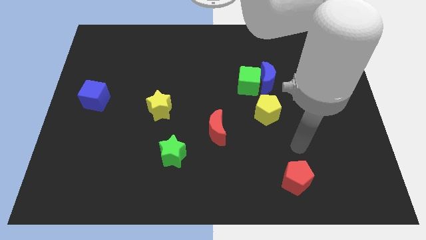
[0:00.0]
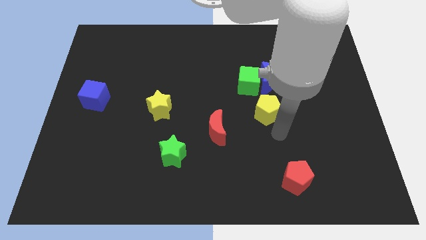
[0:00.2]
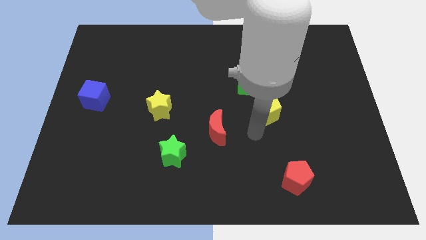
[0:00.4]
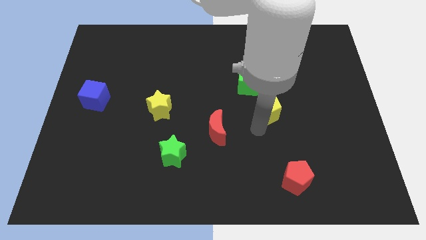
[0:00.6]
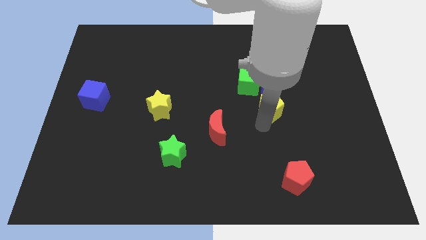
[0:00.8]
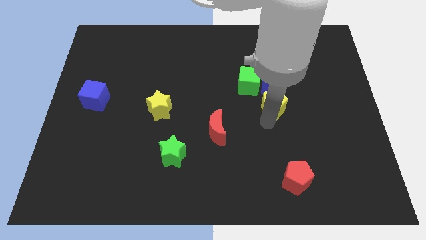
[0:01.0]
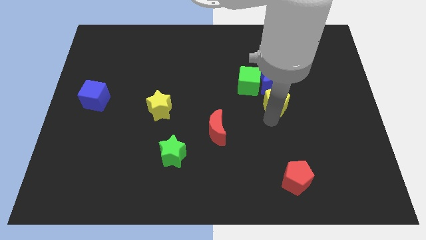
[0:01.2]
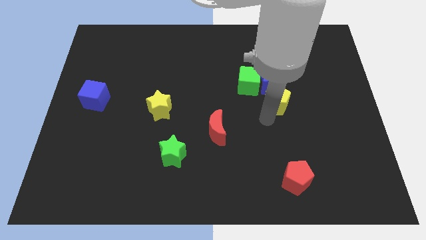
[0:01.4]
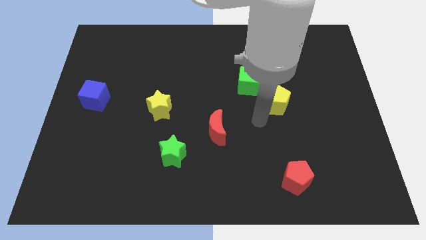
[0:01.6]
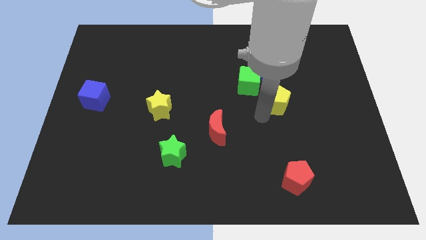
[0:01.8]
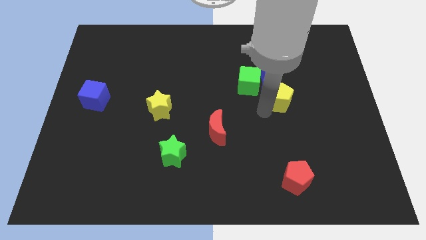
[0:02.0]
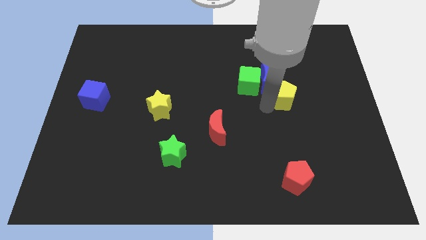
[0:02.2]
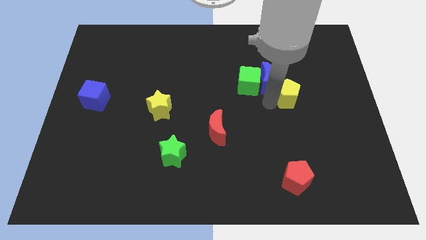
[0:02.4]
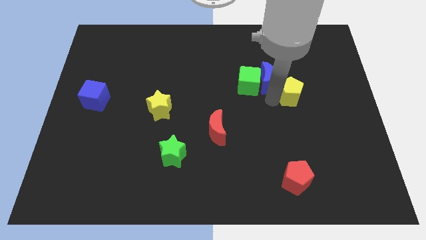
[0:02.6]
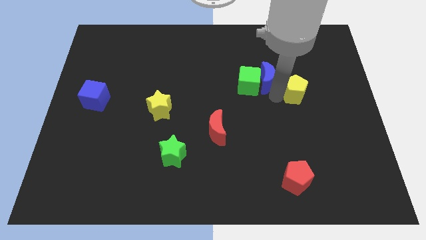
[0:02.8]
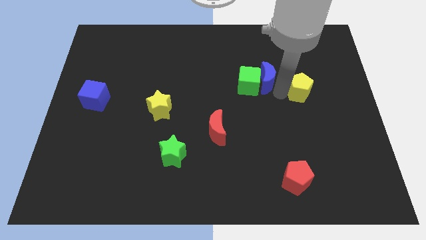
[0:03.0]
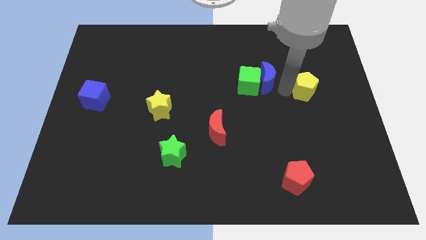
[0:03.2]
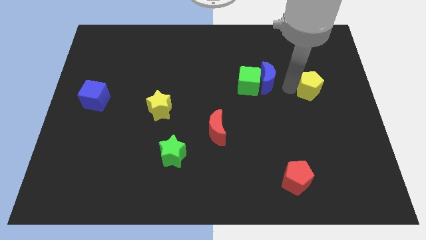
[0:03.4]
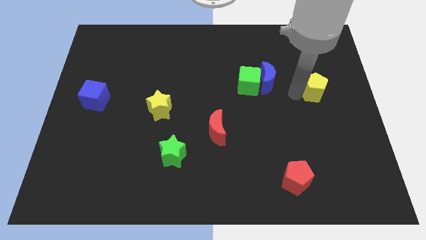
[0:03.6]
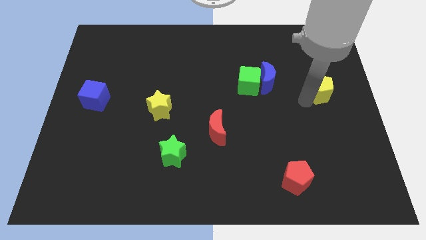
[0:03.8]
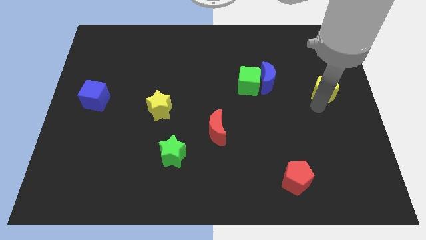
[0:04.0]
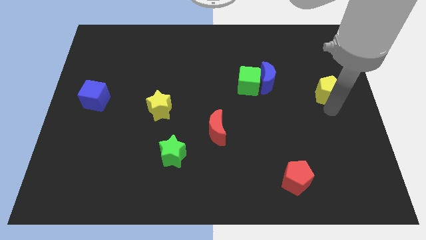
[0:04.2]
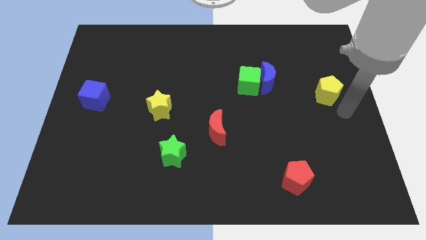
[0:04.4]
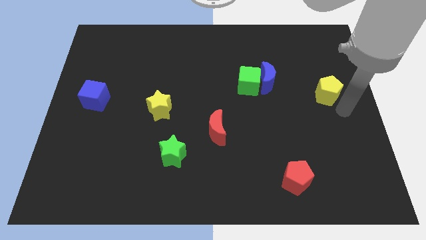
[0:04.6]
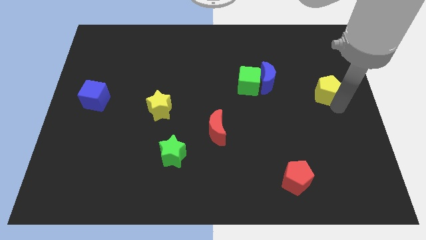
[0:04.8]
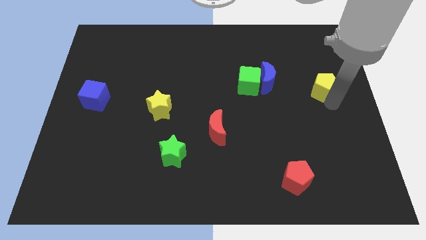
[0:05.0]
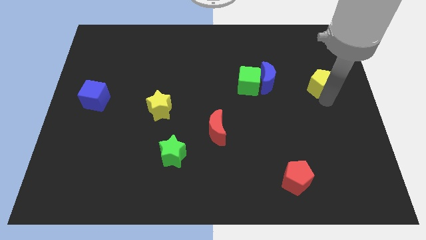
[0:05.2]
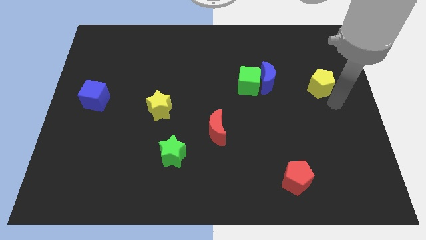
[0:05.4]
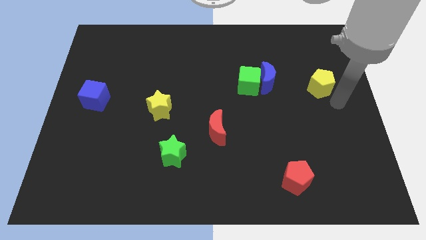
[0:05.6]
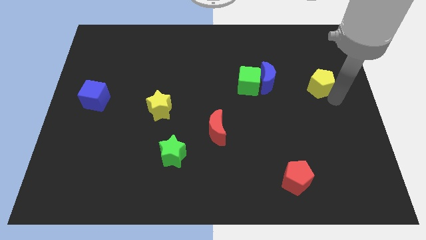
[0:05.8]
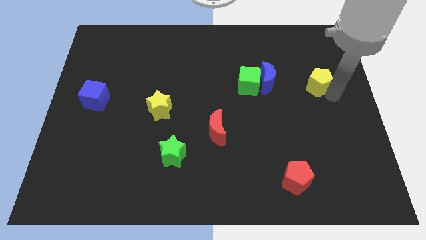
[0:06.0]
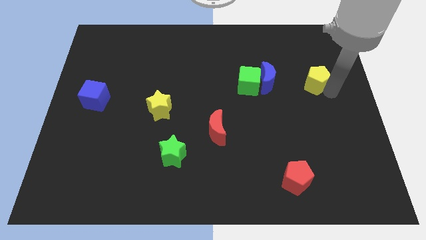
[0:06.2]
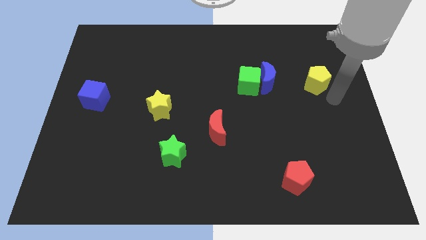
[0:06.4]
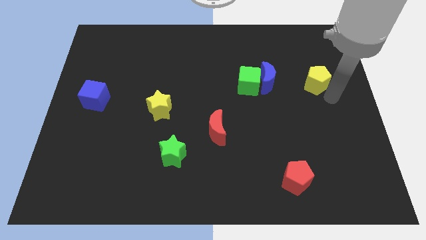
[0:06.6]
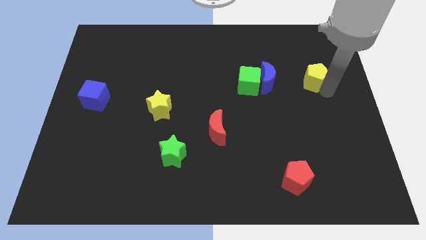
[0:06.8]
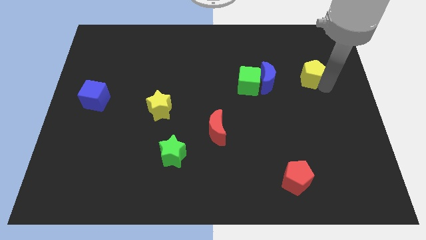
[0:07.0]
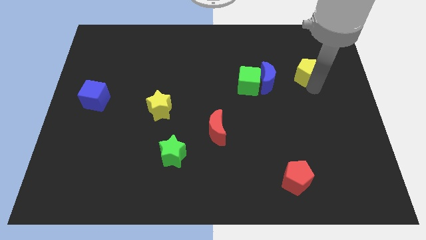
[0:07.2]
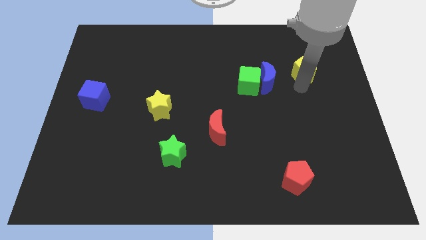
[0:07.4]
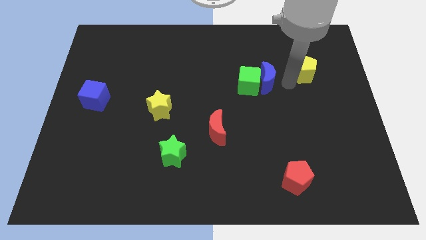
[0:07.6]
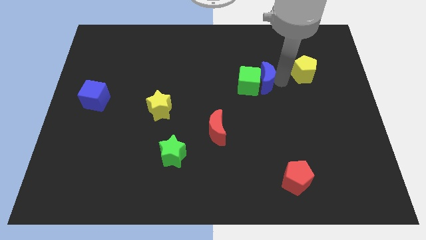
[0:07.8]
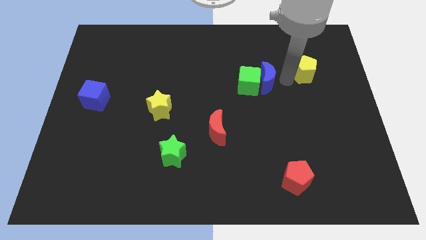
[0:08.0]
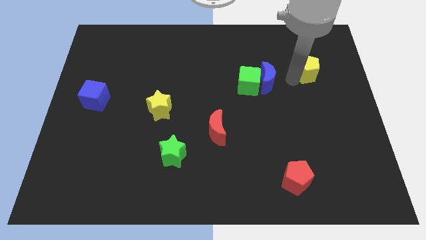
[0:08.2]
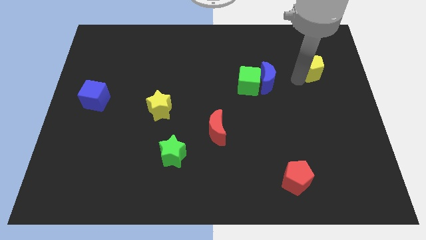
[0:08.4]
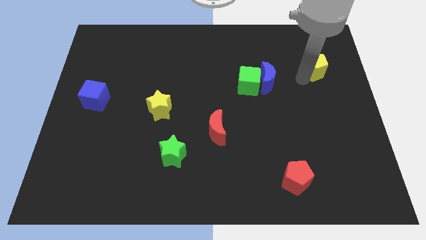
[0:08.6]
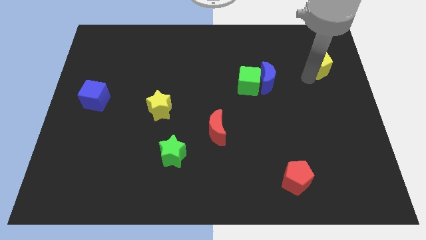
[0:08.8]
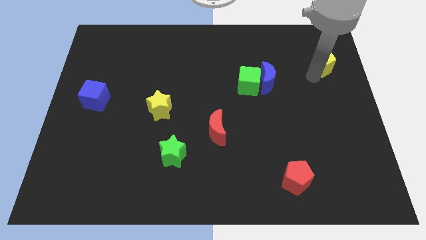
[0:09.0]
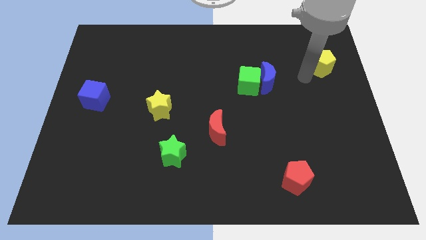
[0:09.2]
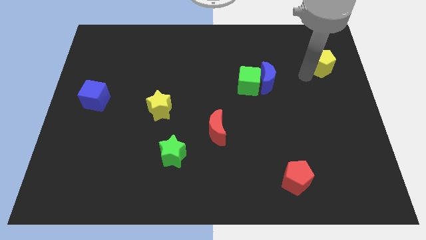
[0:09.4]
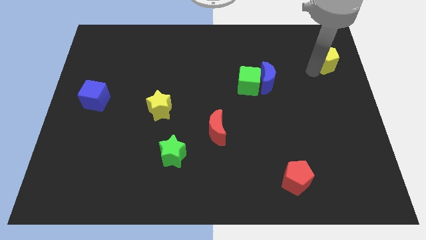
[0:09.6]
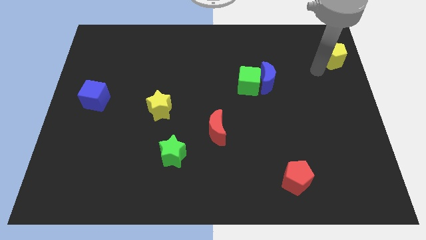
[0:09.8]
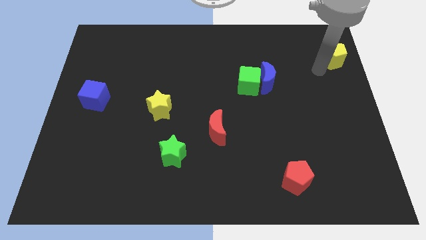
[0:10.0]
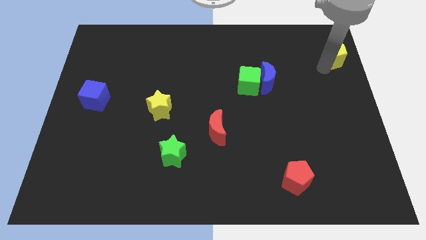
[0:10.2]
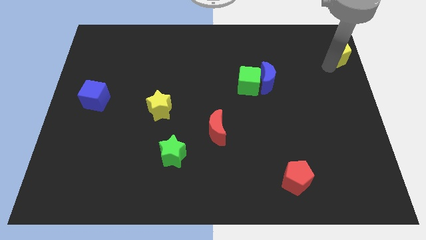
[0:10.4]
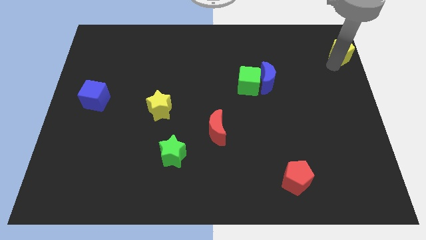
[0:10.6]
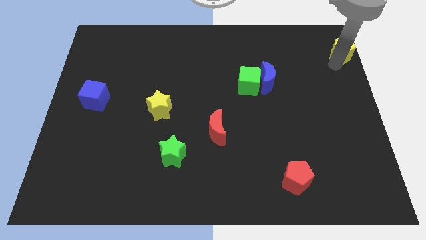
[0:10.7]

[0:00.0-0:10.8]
push the yellow pentagon to the top right

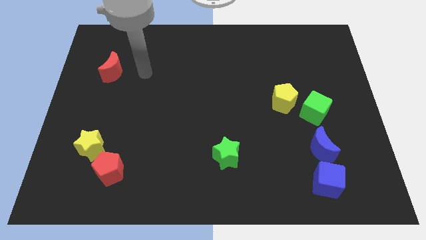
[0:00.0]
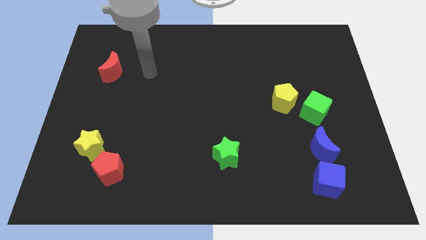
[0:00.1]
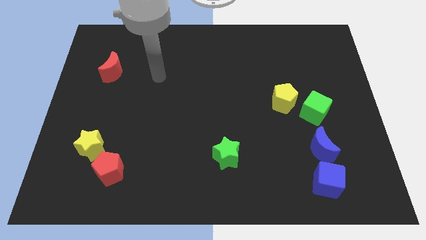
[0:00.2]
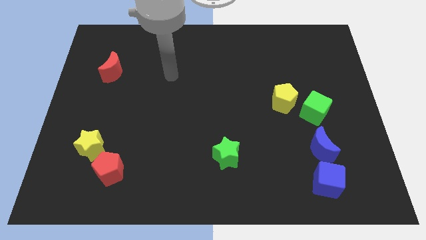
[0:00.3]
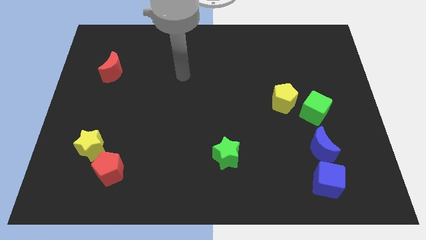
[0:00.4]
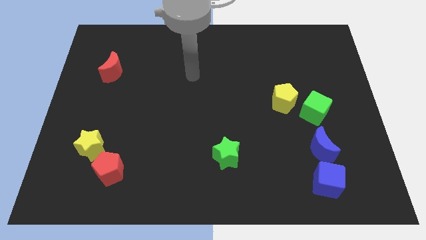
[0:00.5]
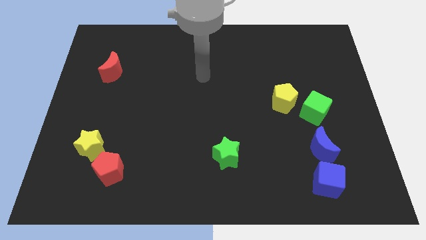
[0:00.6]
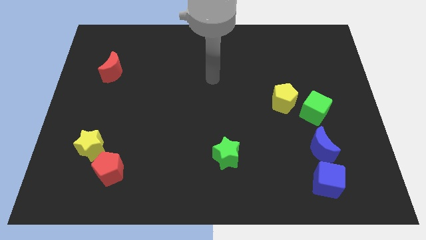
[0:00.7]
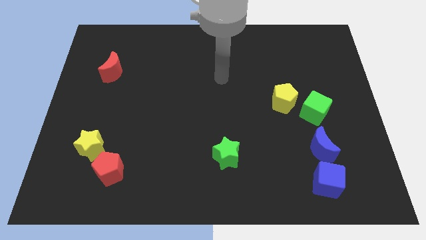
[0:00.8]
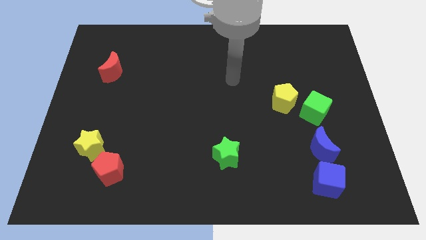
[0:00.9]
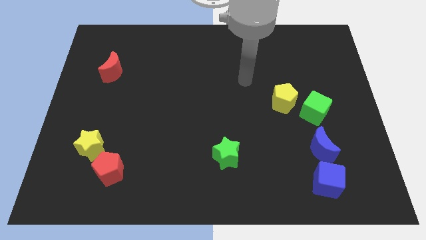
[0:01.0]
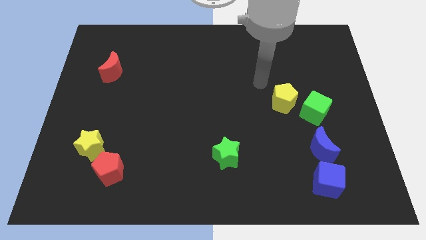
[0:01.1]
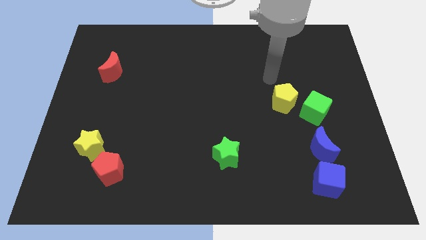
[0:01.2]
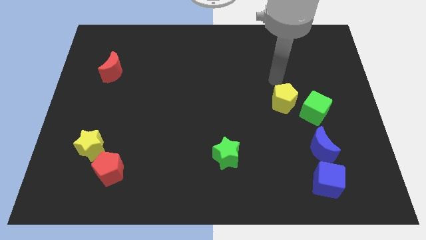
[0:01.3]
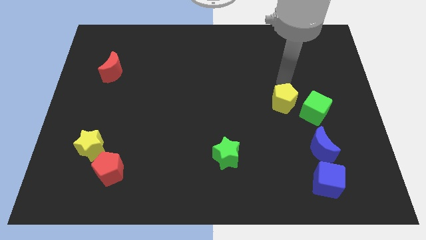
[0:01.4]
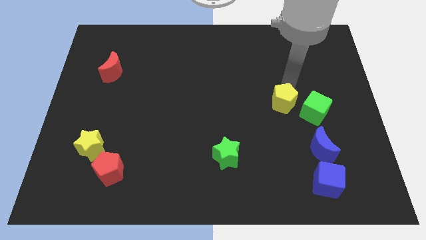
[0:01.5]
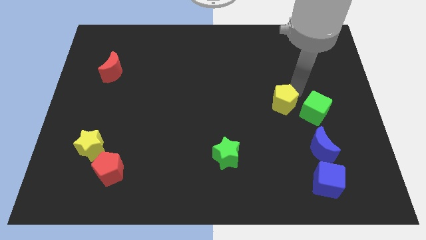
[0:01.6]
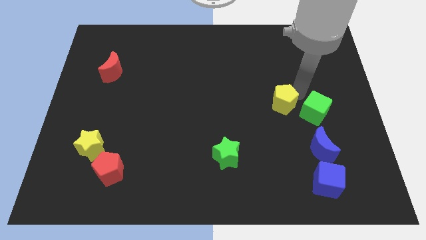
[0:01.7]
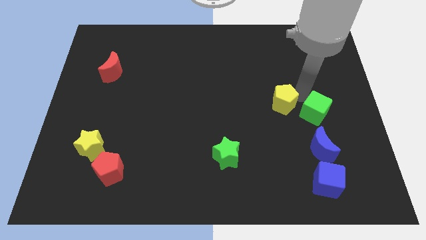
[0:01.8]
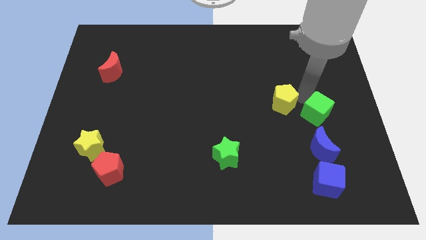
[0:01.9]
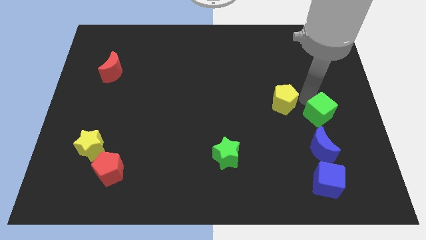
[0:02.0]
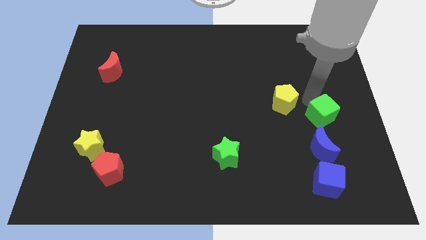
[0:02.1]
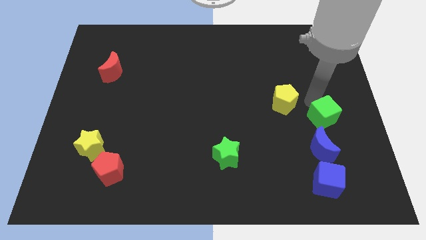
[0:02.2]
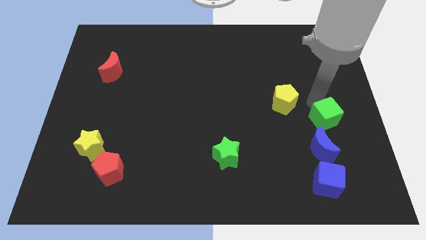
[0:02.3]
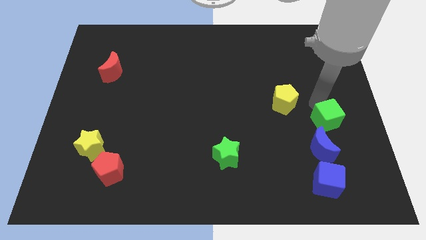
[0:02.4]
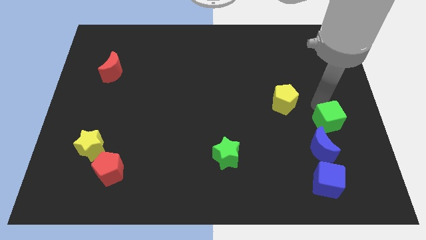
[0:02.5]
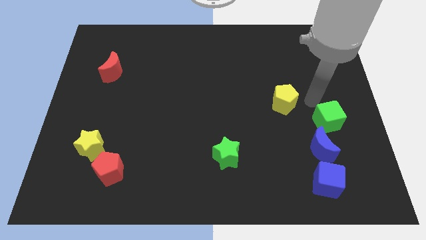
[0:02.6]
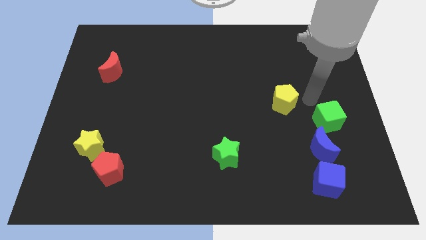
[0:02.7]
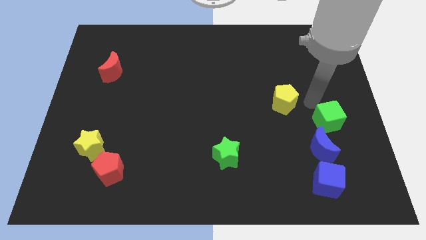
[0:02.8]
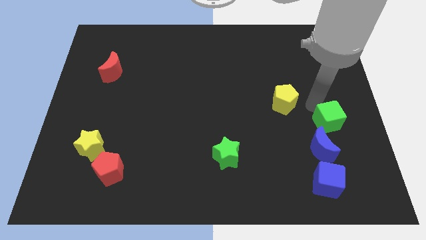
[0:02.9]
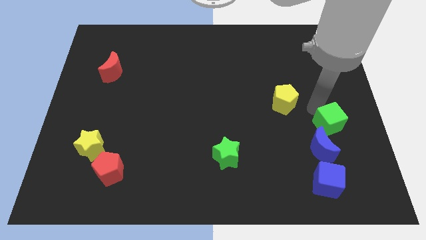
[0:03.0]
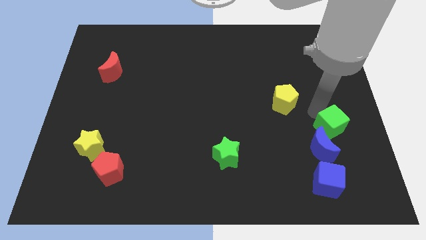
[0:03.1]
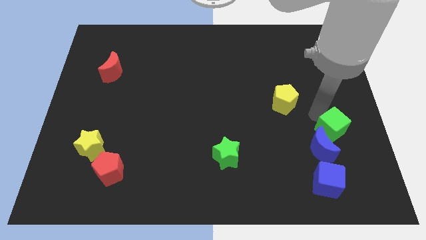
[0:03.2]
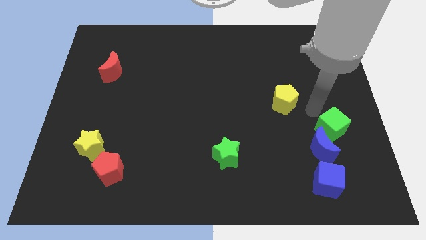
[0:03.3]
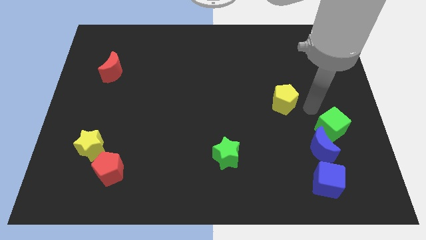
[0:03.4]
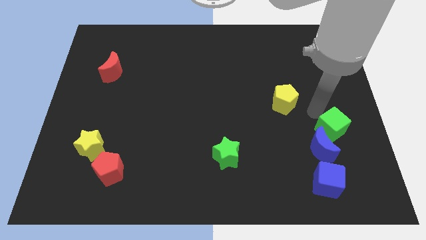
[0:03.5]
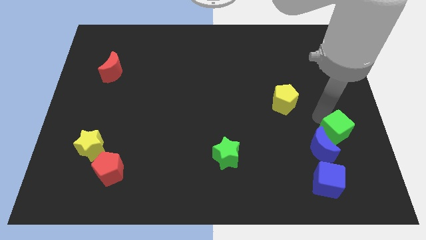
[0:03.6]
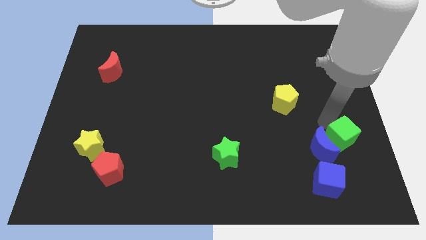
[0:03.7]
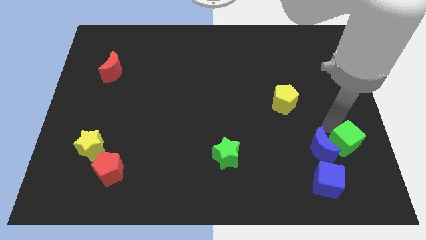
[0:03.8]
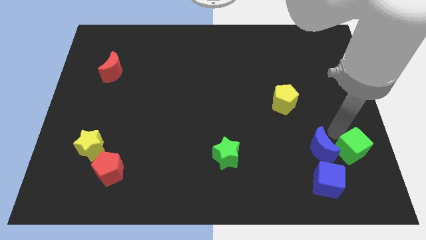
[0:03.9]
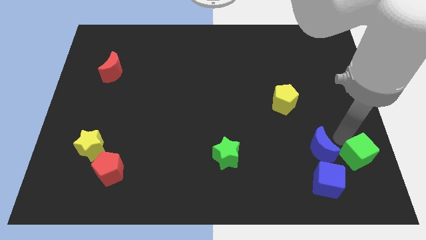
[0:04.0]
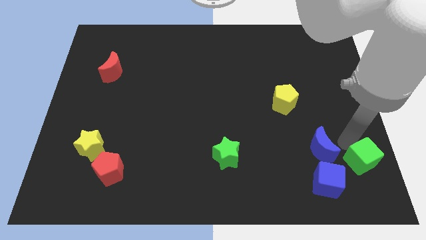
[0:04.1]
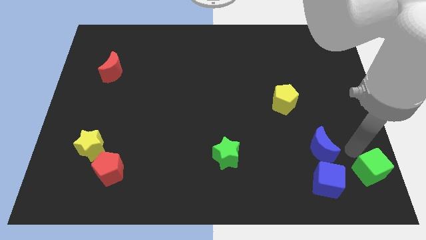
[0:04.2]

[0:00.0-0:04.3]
slide the green cube to the bottom right corner
